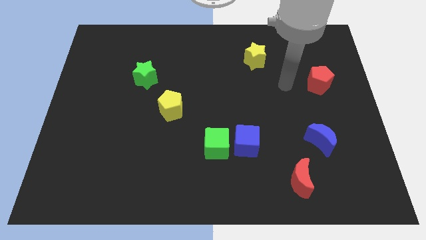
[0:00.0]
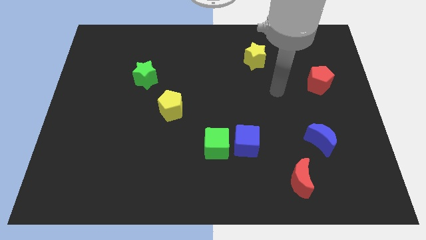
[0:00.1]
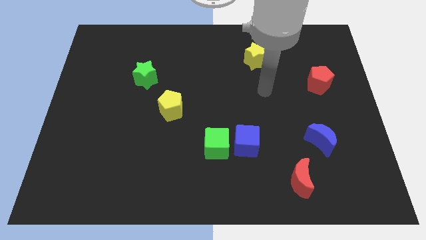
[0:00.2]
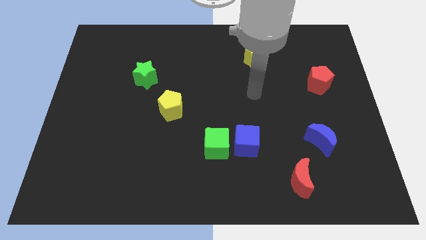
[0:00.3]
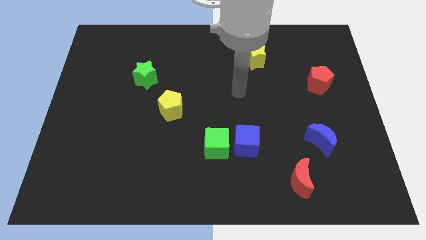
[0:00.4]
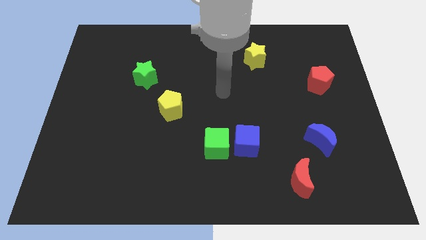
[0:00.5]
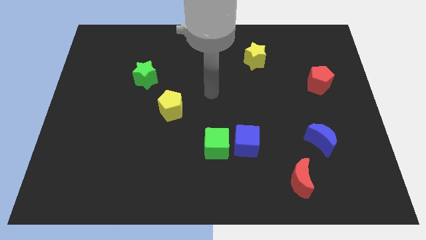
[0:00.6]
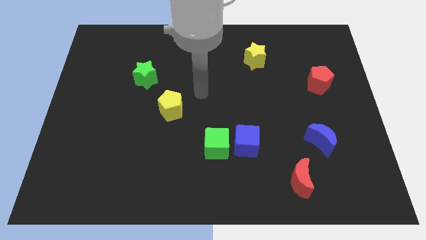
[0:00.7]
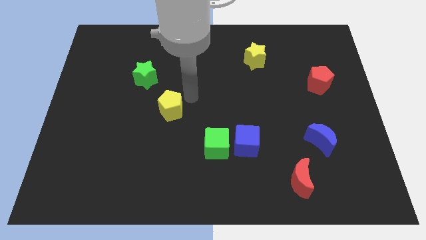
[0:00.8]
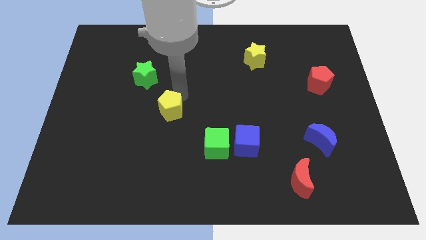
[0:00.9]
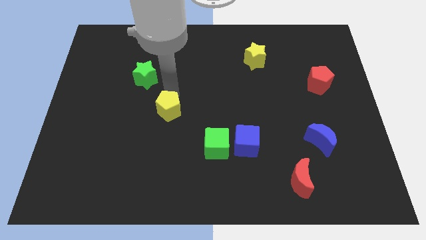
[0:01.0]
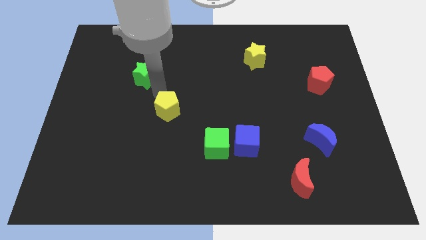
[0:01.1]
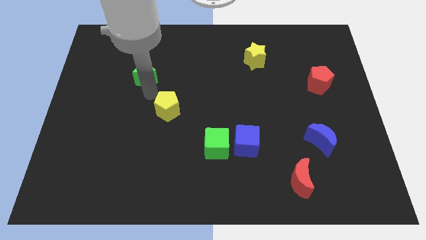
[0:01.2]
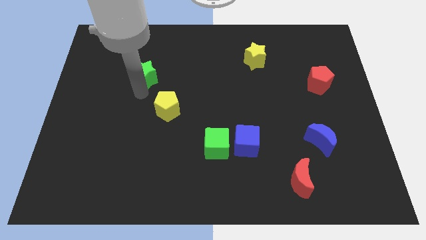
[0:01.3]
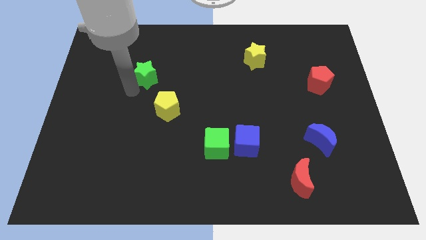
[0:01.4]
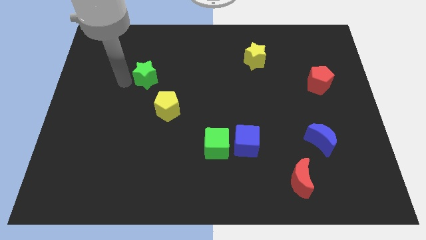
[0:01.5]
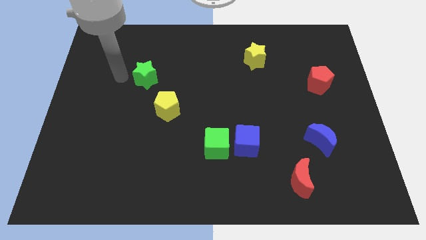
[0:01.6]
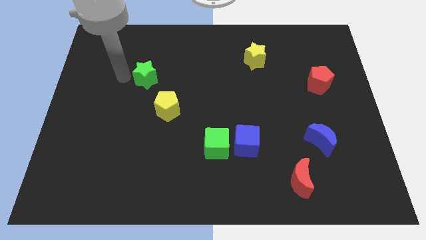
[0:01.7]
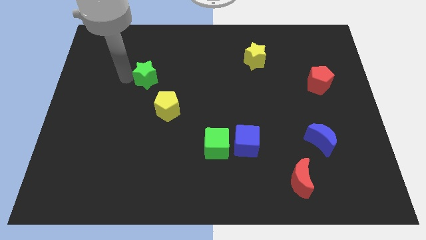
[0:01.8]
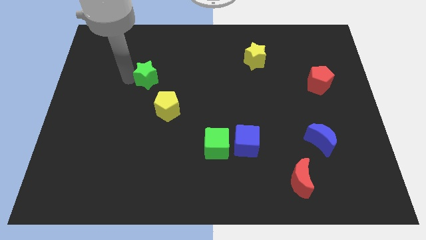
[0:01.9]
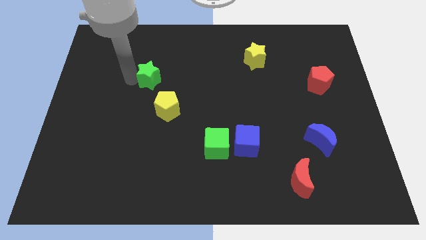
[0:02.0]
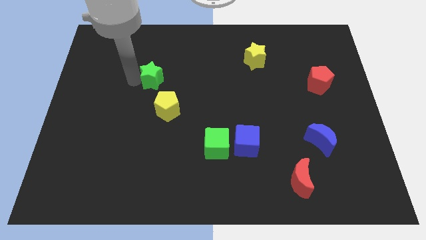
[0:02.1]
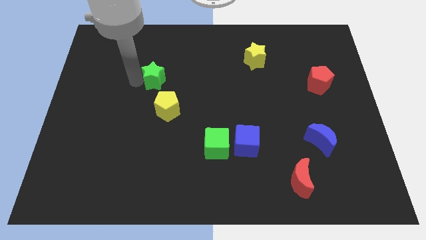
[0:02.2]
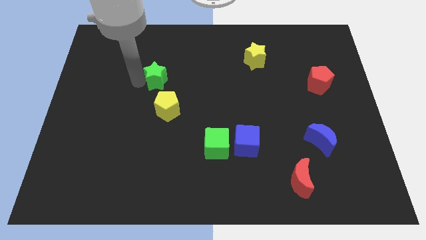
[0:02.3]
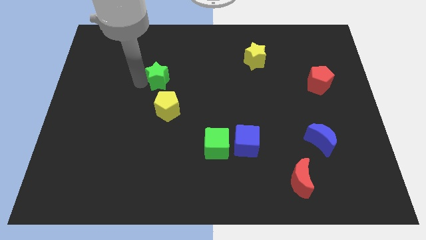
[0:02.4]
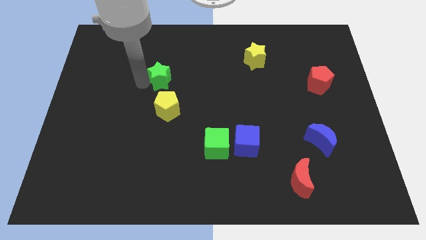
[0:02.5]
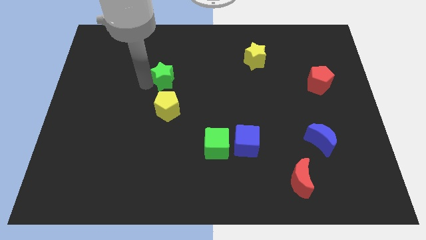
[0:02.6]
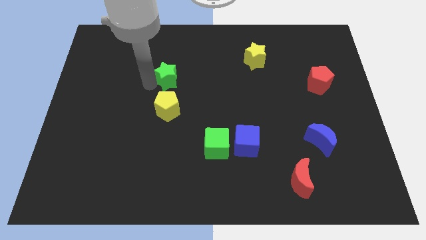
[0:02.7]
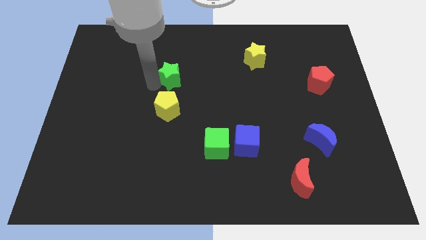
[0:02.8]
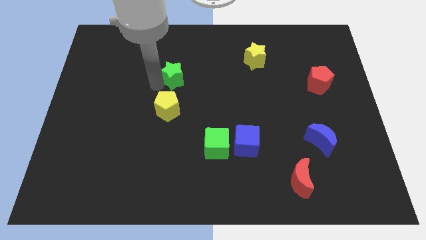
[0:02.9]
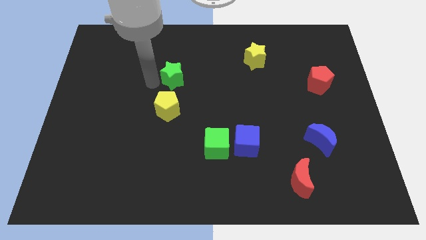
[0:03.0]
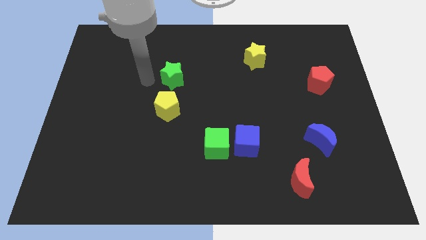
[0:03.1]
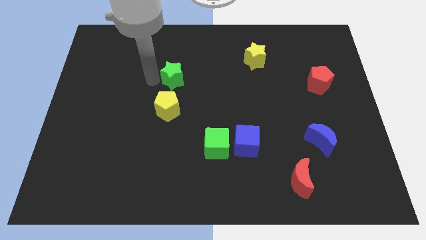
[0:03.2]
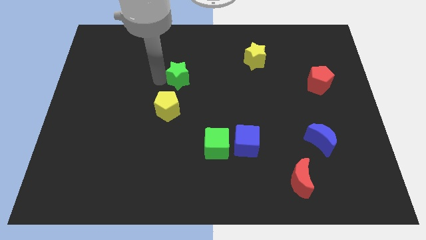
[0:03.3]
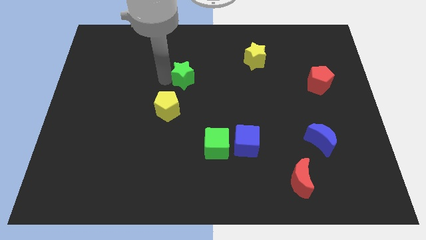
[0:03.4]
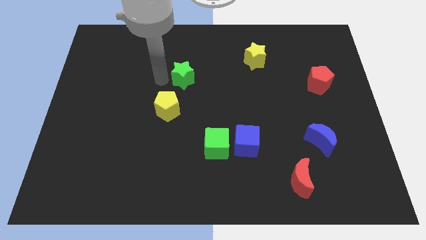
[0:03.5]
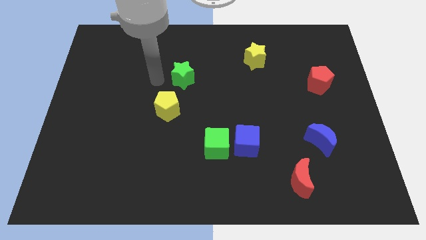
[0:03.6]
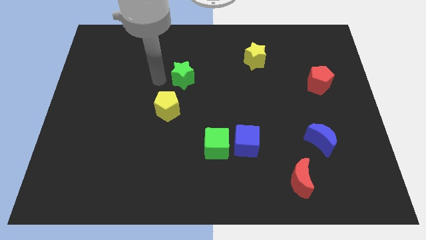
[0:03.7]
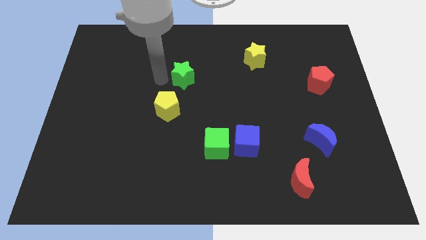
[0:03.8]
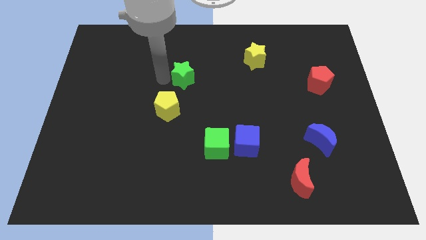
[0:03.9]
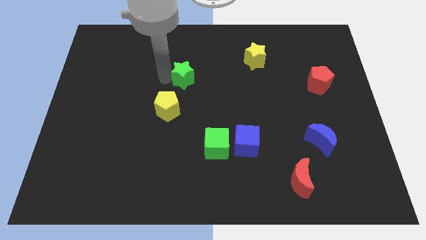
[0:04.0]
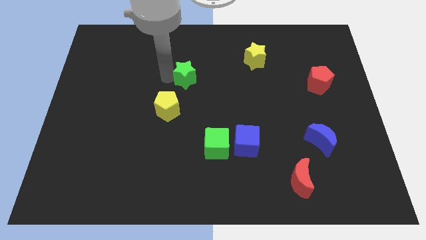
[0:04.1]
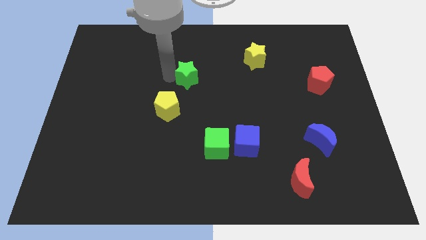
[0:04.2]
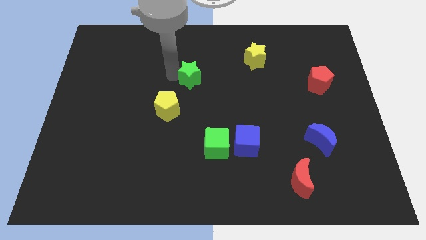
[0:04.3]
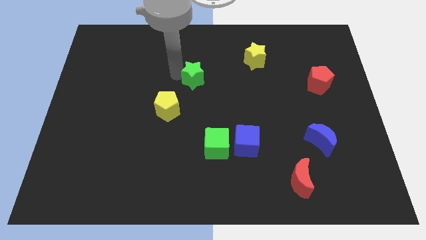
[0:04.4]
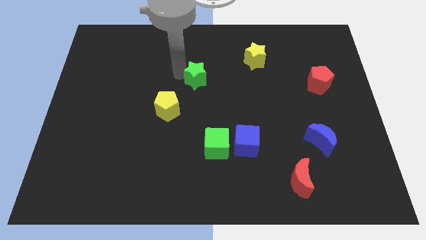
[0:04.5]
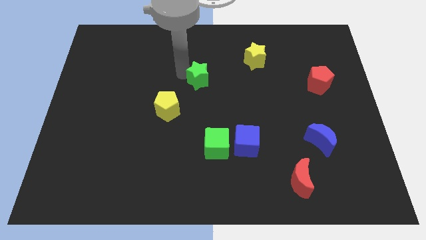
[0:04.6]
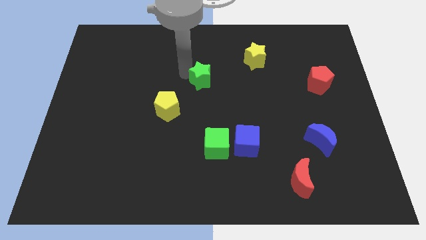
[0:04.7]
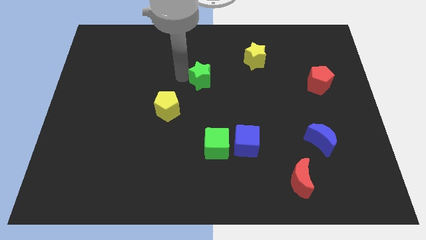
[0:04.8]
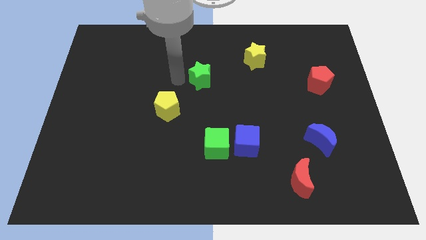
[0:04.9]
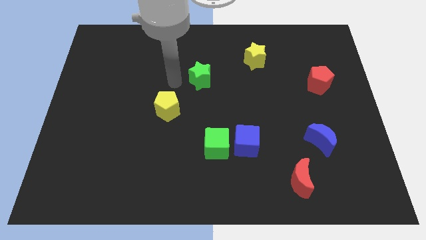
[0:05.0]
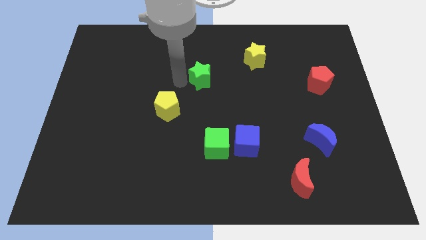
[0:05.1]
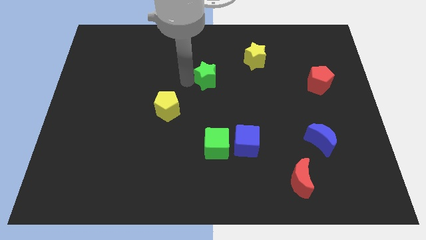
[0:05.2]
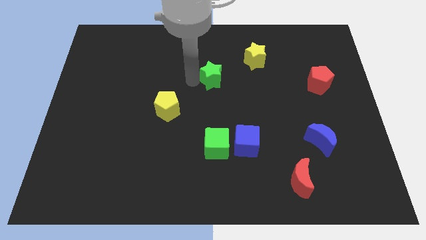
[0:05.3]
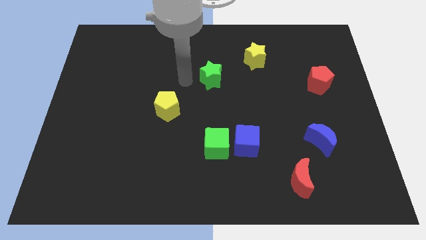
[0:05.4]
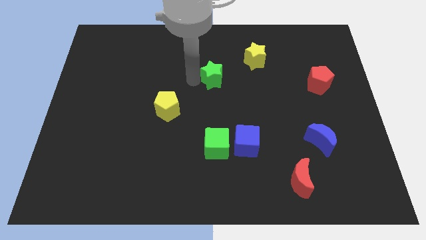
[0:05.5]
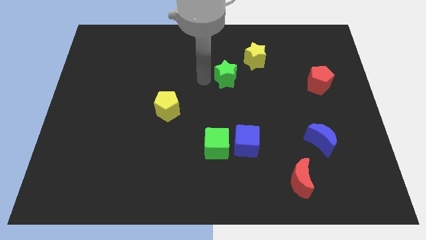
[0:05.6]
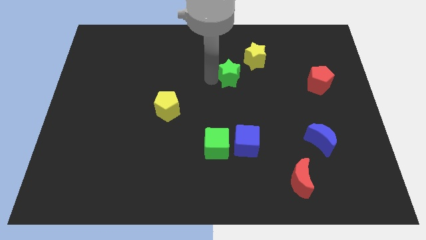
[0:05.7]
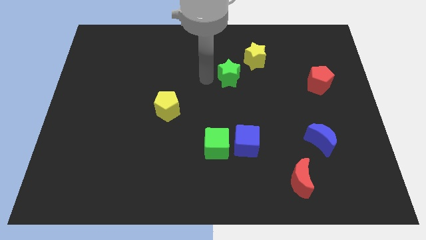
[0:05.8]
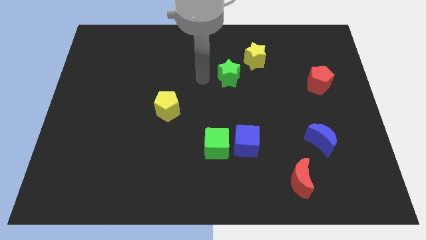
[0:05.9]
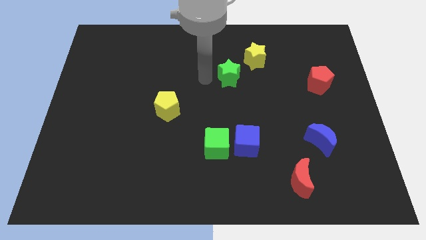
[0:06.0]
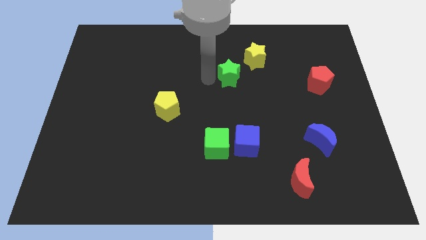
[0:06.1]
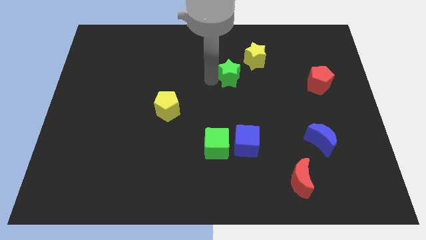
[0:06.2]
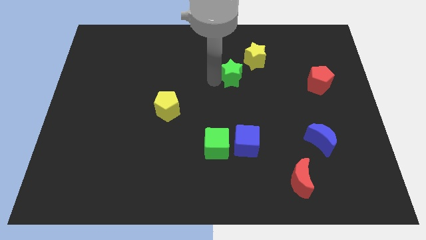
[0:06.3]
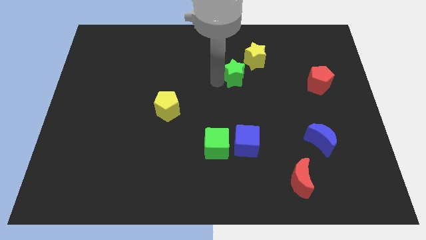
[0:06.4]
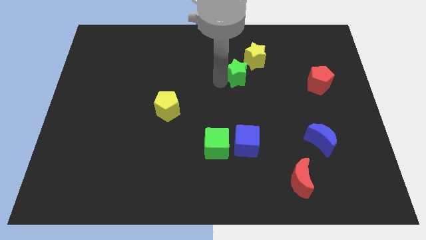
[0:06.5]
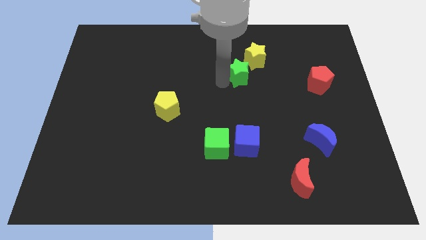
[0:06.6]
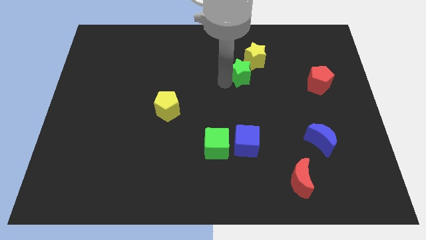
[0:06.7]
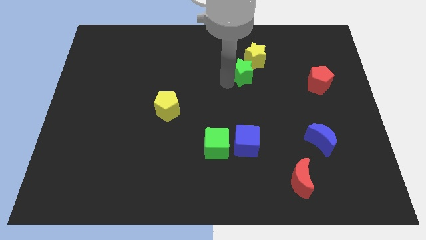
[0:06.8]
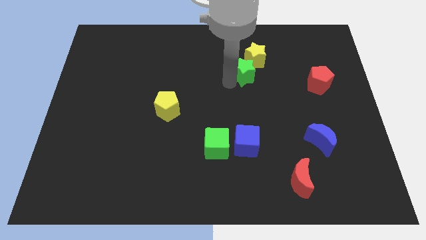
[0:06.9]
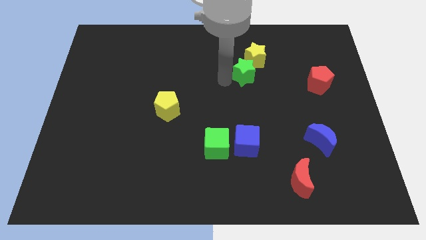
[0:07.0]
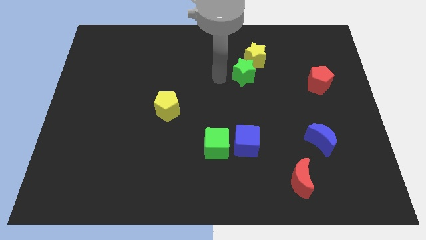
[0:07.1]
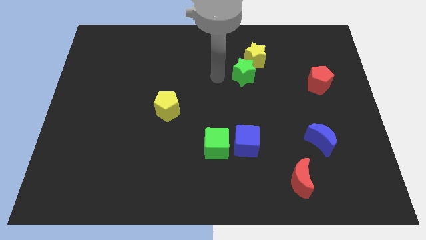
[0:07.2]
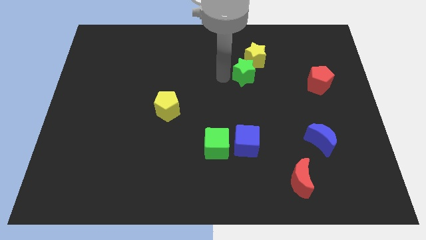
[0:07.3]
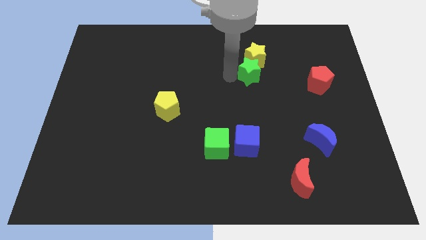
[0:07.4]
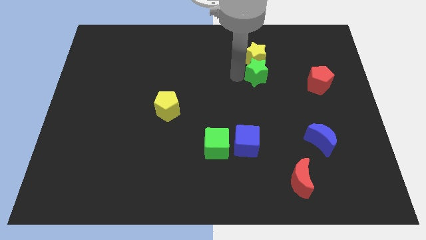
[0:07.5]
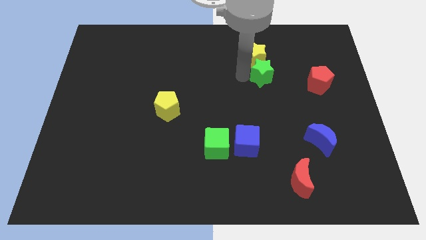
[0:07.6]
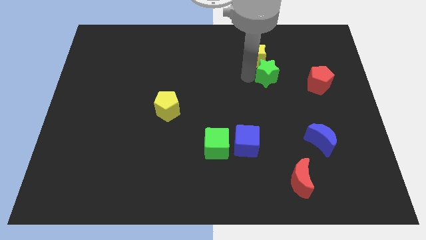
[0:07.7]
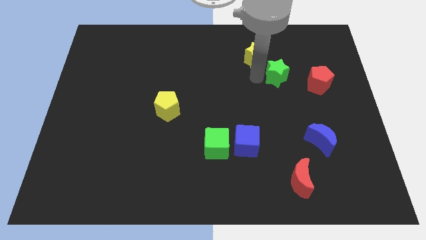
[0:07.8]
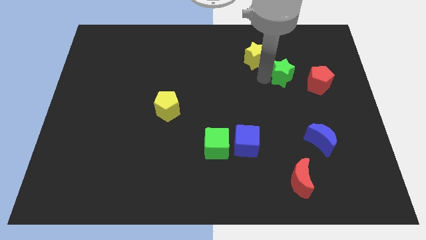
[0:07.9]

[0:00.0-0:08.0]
put the green star to the top left of the red pentagon
